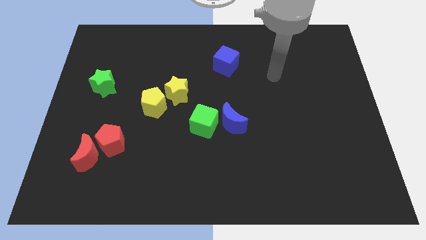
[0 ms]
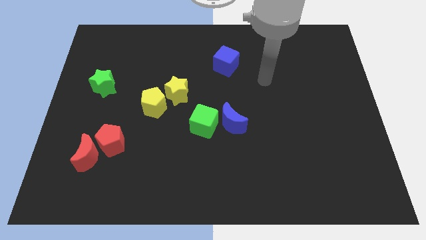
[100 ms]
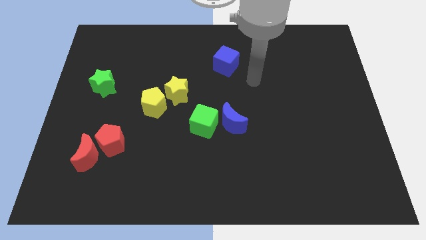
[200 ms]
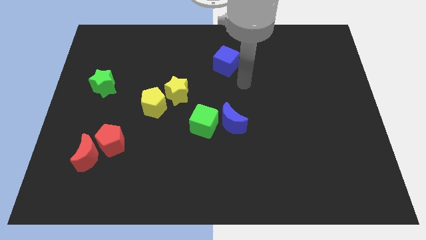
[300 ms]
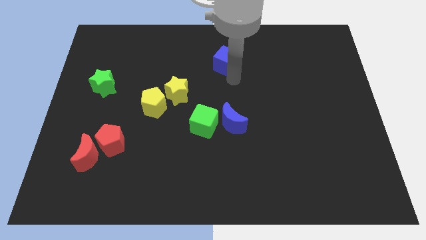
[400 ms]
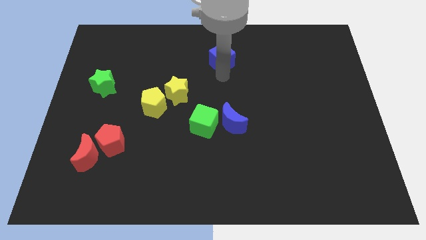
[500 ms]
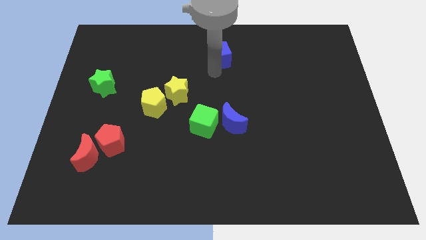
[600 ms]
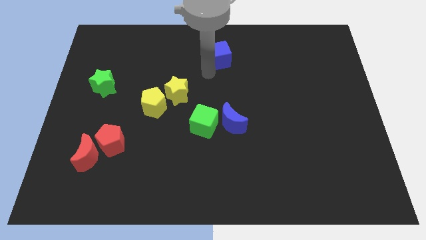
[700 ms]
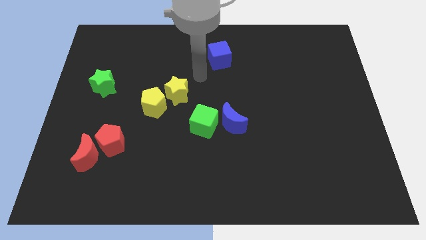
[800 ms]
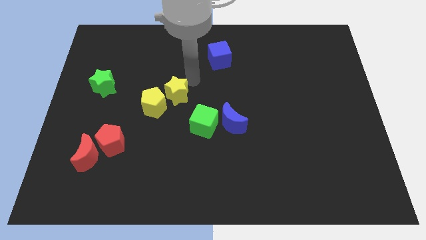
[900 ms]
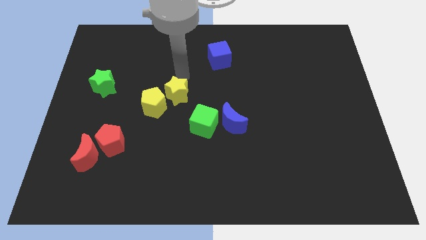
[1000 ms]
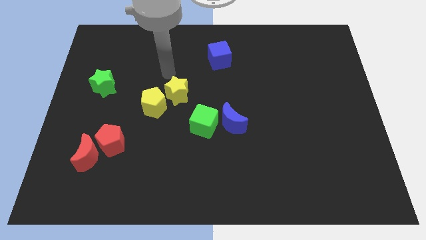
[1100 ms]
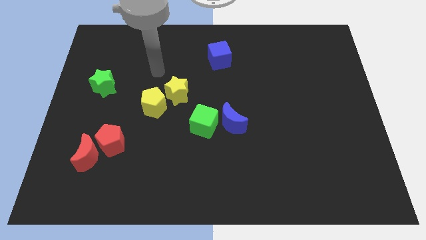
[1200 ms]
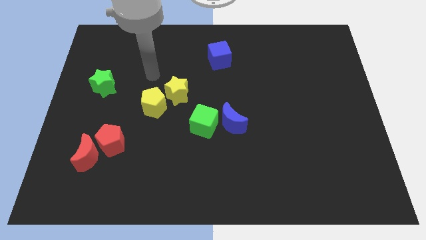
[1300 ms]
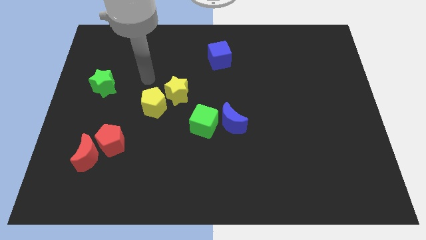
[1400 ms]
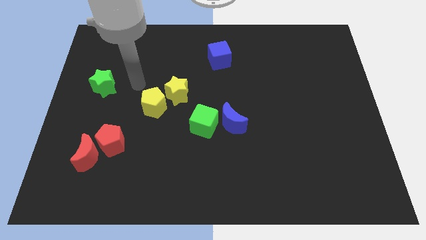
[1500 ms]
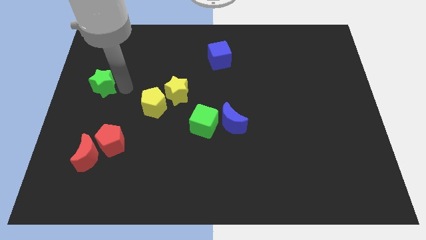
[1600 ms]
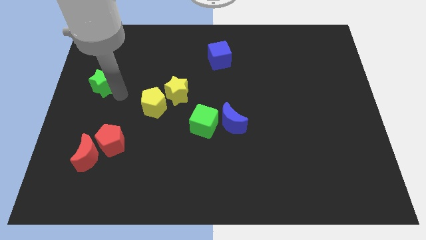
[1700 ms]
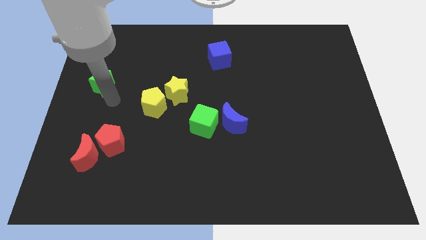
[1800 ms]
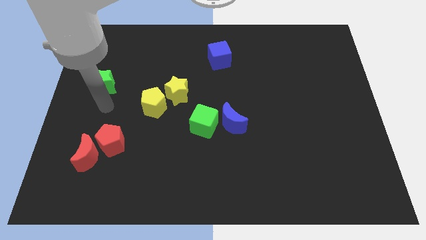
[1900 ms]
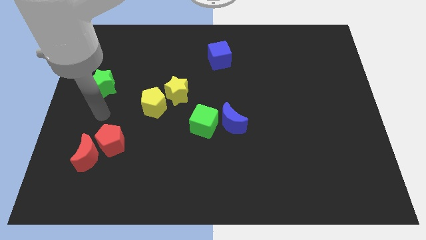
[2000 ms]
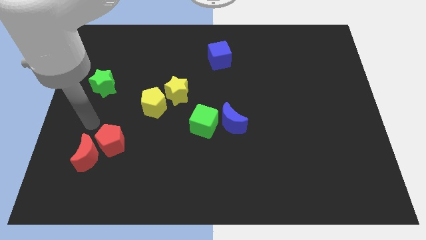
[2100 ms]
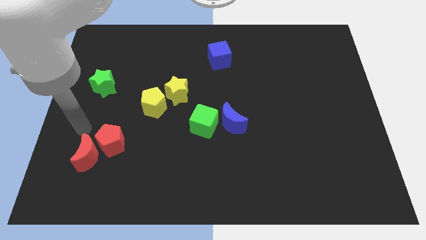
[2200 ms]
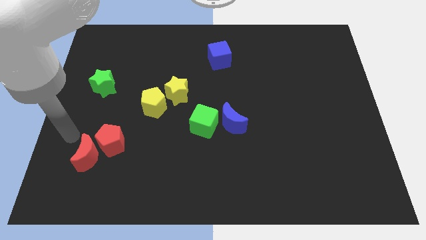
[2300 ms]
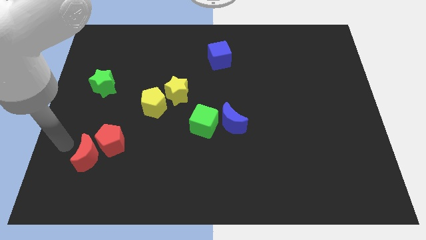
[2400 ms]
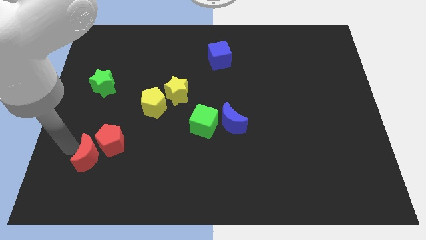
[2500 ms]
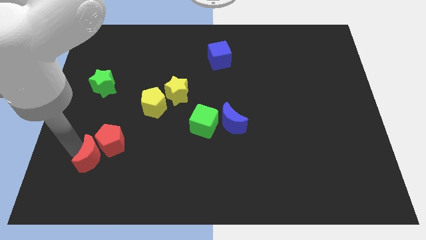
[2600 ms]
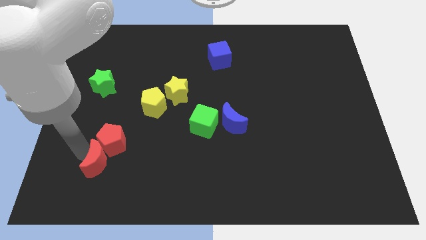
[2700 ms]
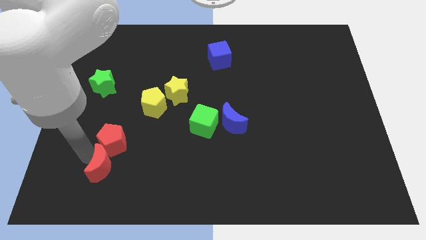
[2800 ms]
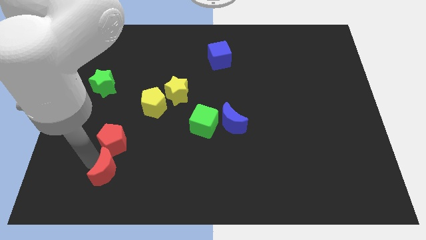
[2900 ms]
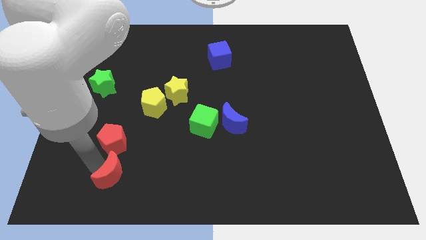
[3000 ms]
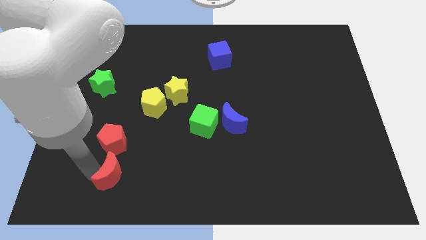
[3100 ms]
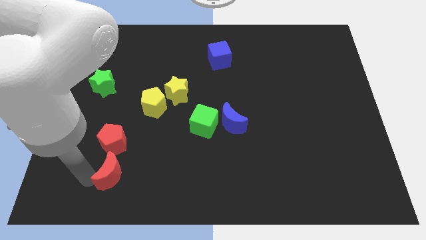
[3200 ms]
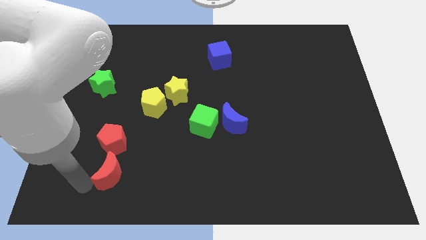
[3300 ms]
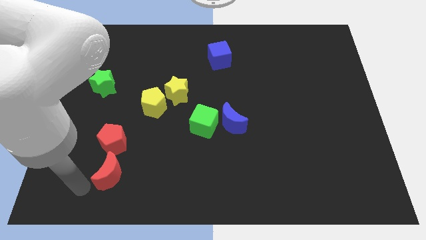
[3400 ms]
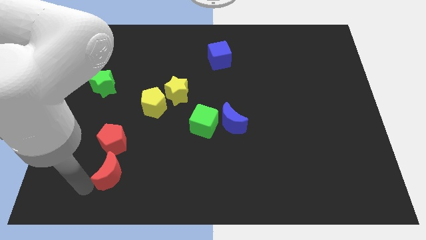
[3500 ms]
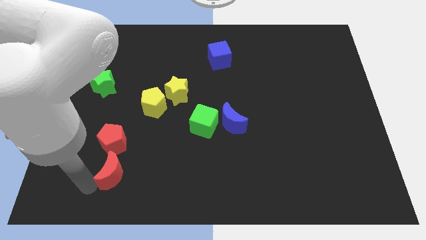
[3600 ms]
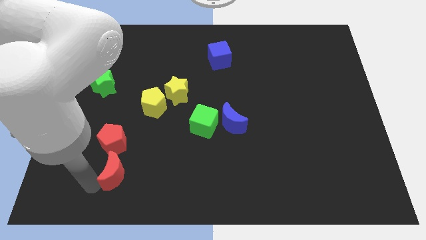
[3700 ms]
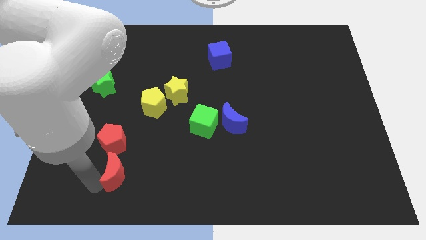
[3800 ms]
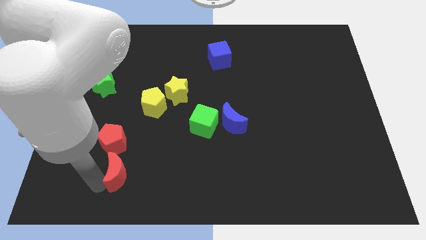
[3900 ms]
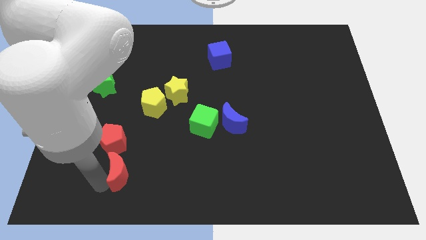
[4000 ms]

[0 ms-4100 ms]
move the red moon slightly right

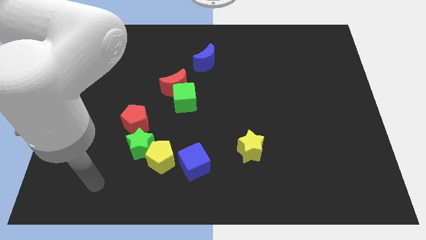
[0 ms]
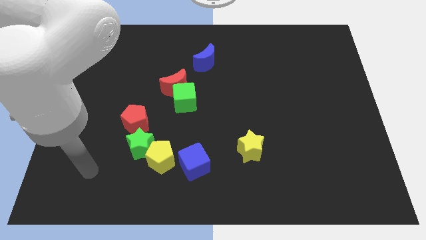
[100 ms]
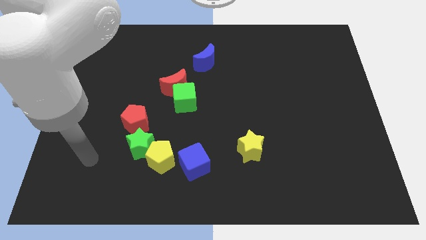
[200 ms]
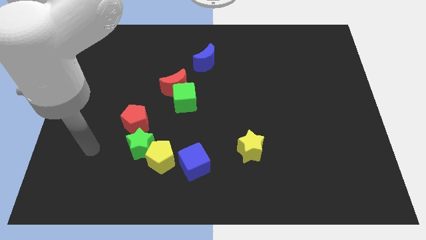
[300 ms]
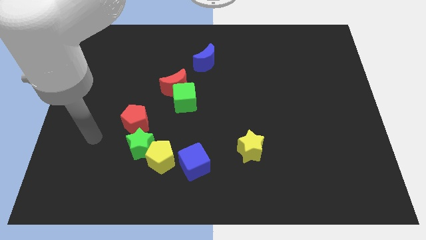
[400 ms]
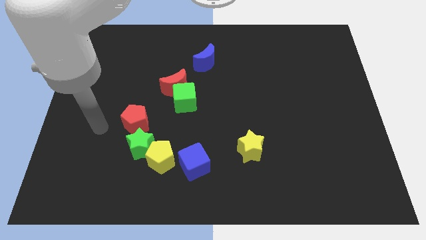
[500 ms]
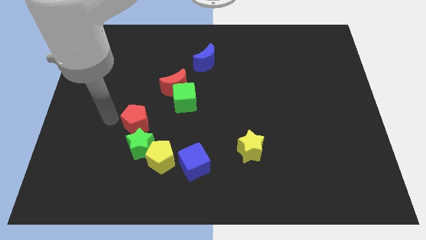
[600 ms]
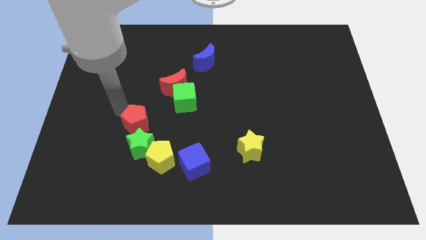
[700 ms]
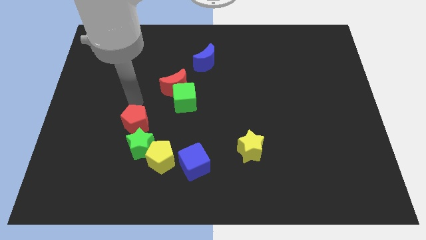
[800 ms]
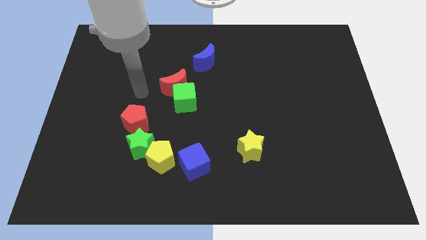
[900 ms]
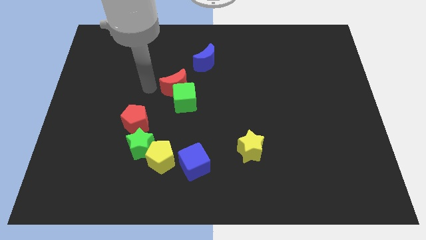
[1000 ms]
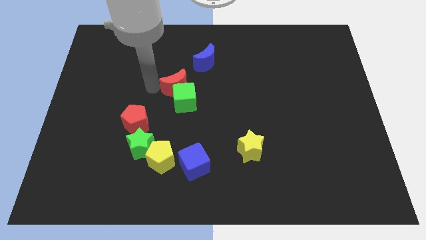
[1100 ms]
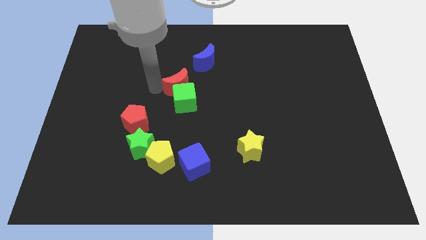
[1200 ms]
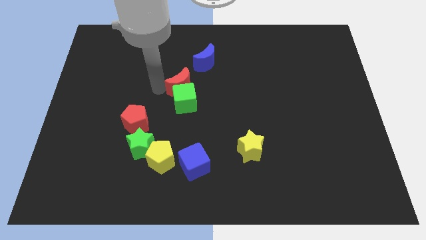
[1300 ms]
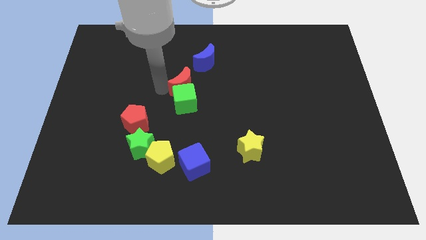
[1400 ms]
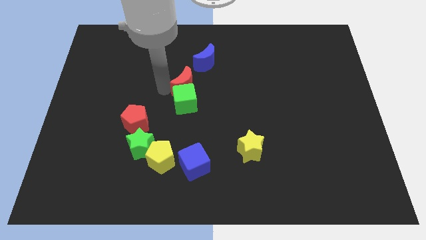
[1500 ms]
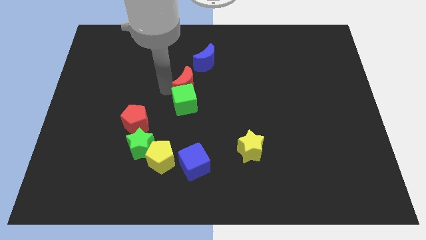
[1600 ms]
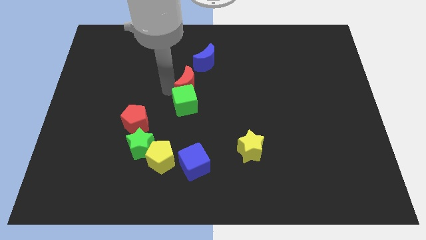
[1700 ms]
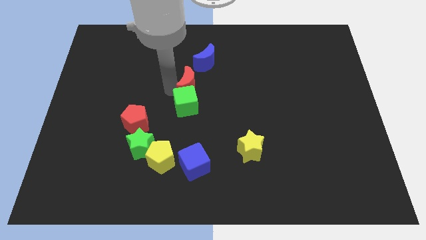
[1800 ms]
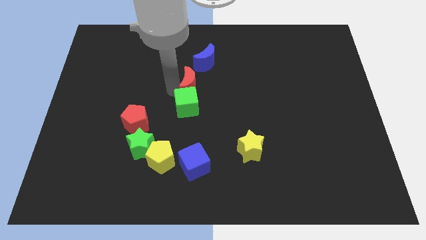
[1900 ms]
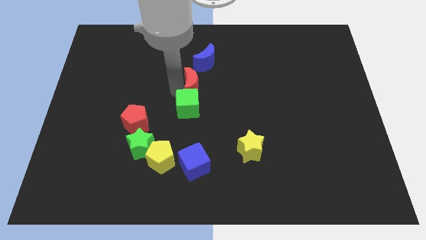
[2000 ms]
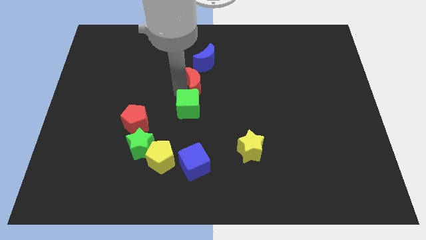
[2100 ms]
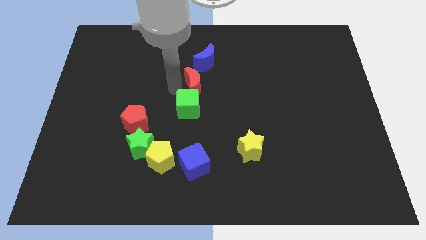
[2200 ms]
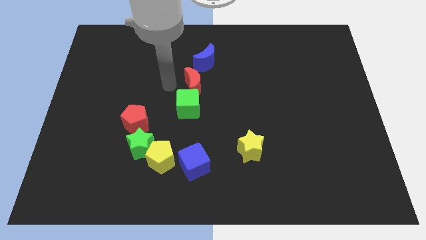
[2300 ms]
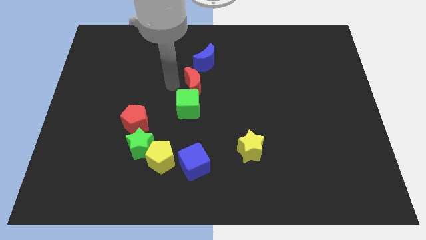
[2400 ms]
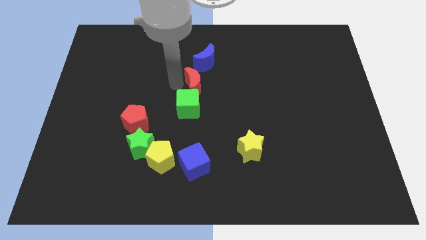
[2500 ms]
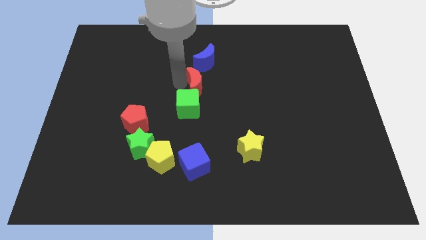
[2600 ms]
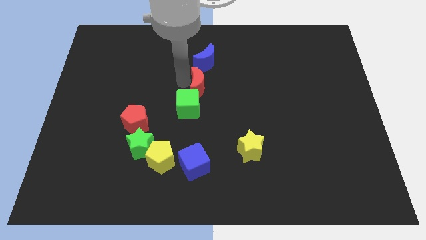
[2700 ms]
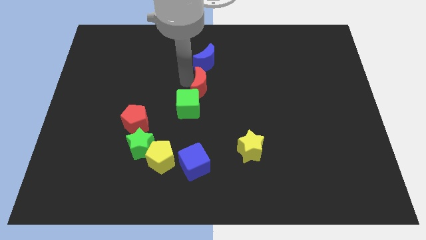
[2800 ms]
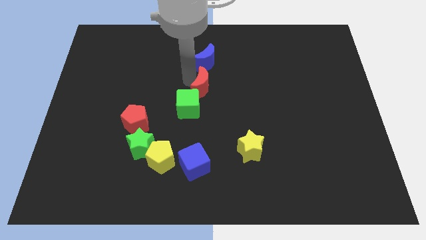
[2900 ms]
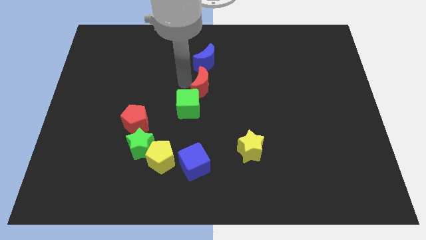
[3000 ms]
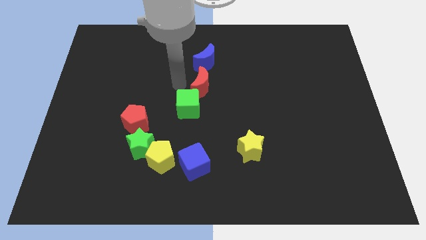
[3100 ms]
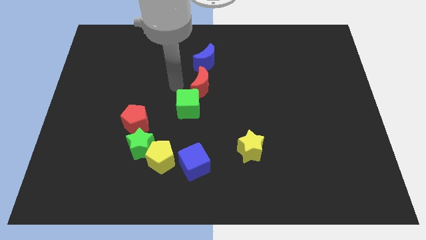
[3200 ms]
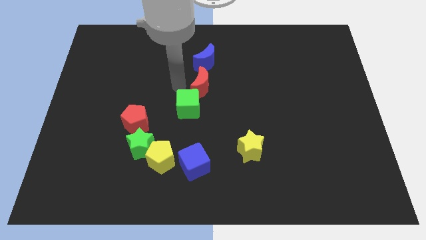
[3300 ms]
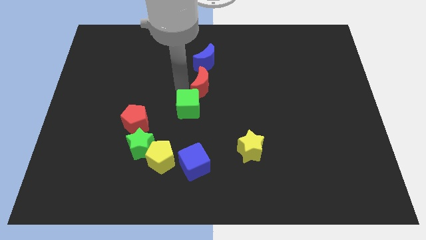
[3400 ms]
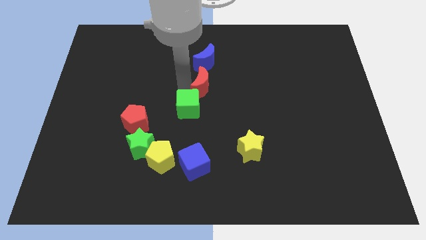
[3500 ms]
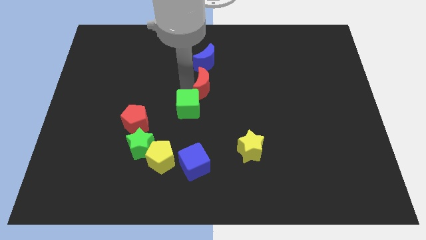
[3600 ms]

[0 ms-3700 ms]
slightly slide the red moon right

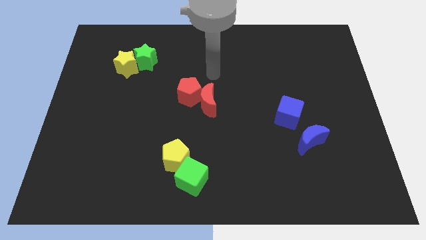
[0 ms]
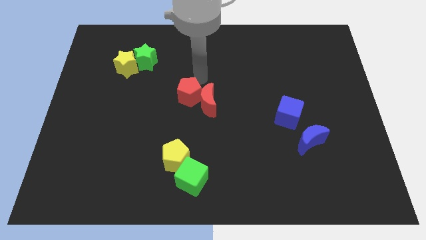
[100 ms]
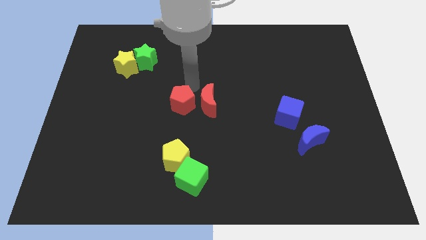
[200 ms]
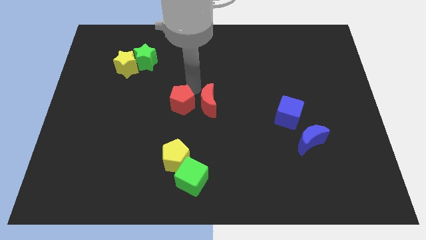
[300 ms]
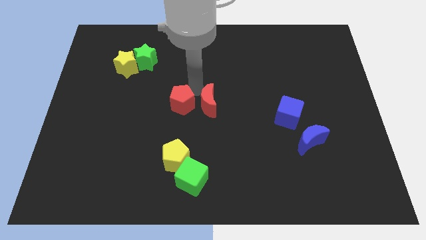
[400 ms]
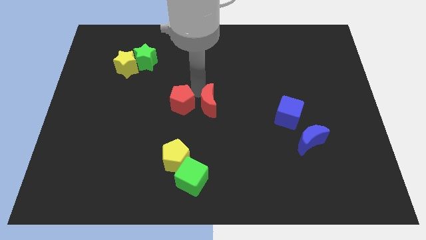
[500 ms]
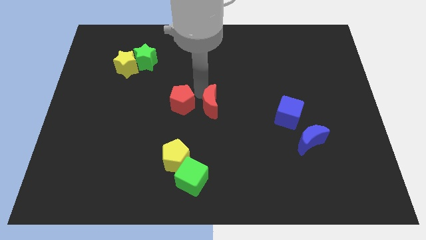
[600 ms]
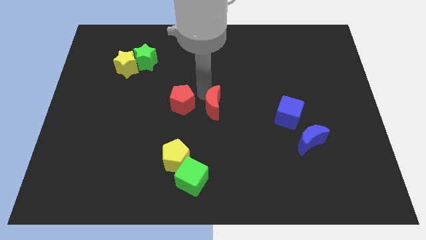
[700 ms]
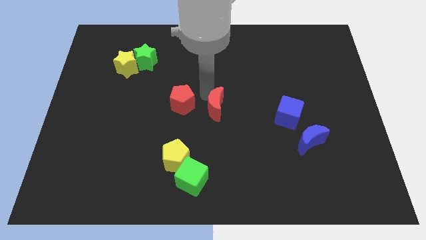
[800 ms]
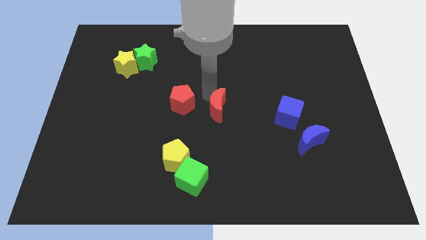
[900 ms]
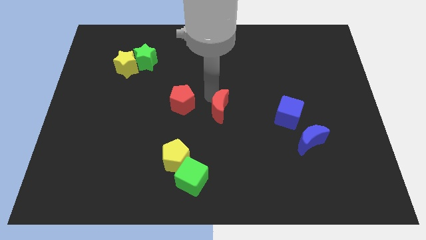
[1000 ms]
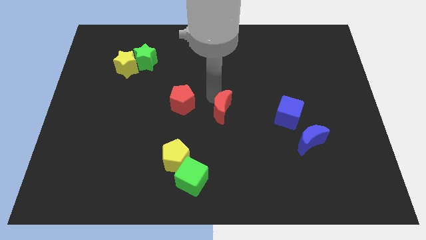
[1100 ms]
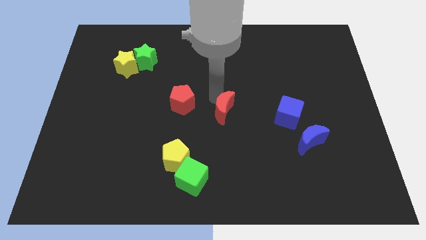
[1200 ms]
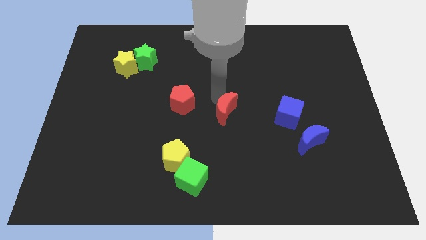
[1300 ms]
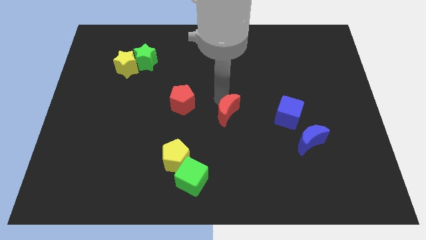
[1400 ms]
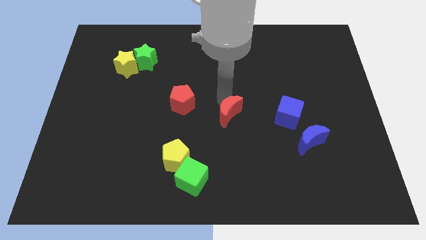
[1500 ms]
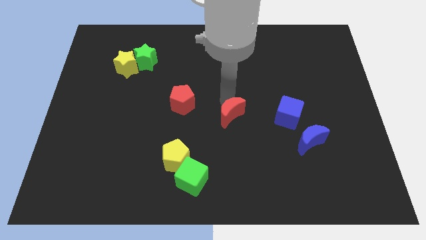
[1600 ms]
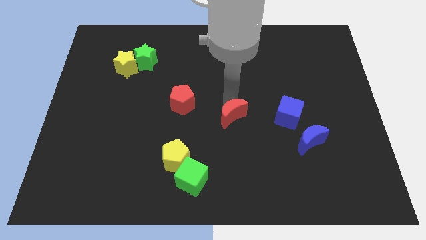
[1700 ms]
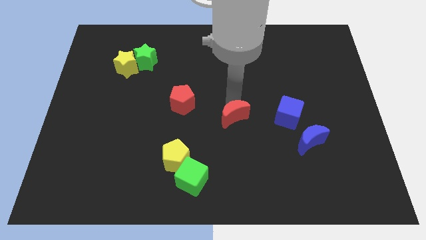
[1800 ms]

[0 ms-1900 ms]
push the red moon down and right a little bit
